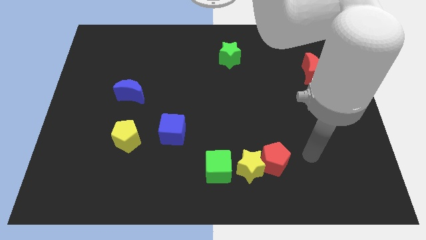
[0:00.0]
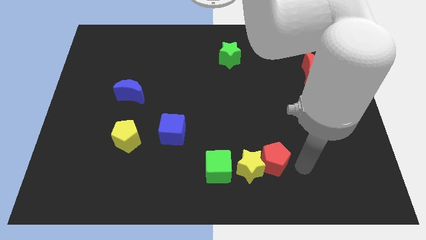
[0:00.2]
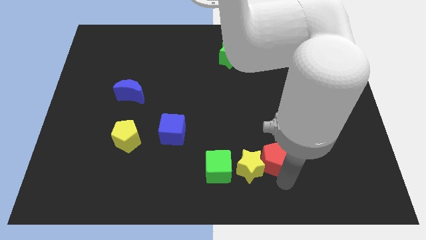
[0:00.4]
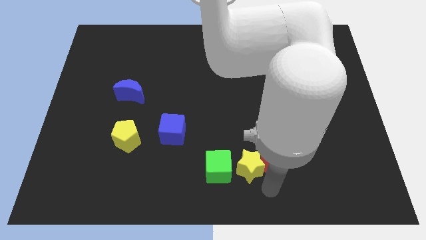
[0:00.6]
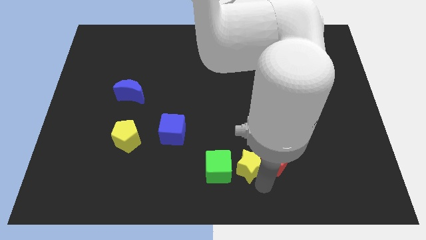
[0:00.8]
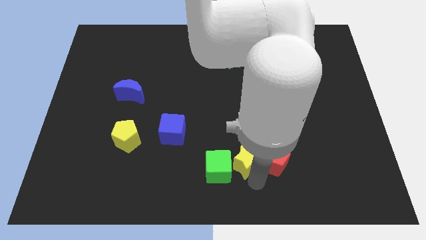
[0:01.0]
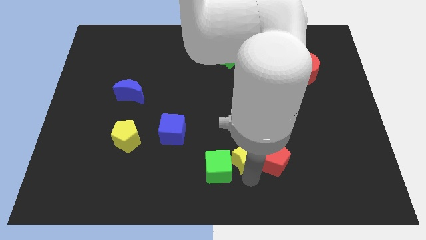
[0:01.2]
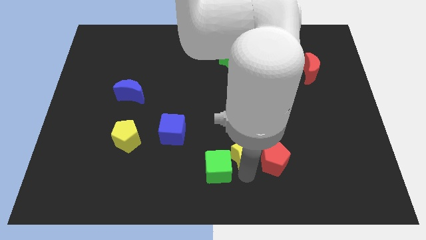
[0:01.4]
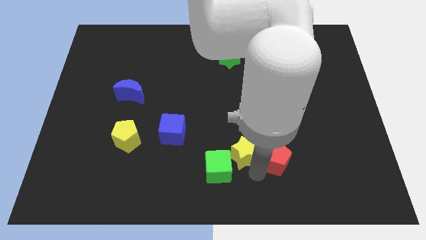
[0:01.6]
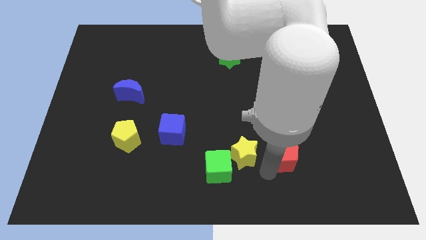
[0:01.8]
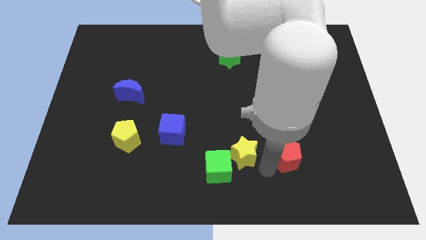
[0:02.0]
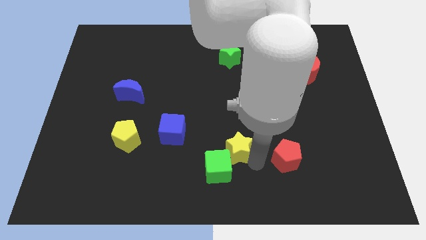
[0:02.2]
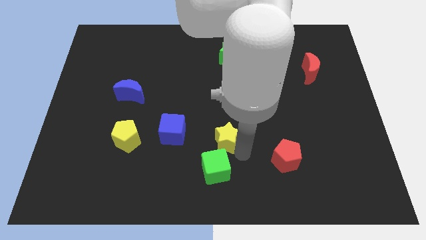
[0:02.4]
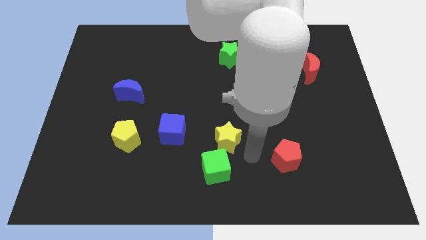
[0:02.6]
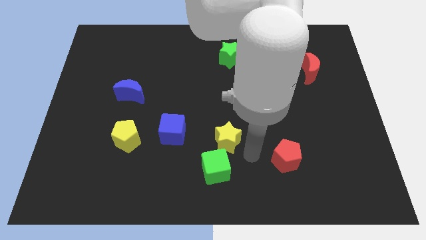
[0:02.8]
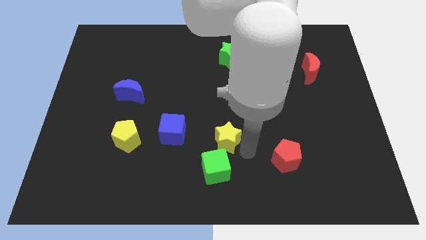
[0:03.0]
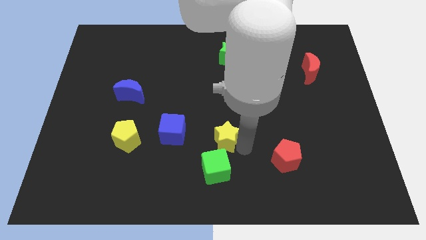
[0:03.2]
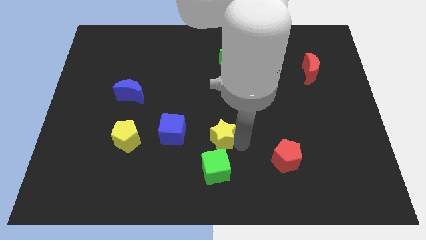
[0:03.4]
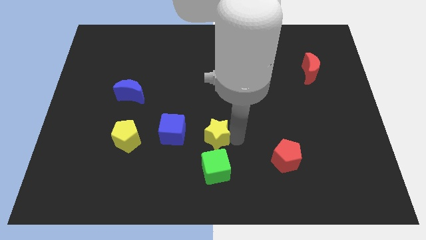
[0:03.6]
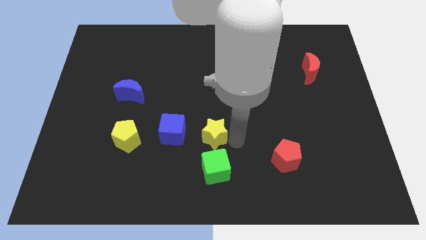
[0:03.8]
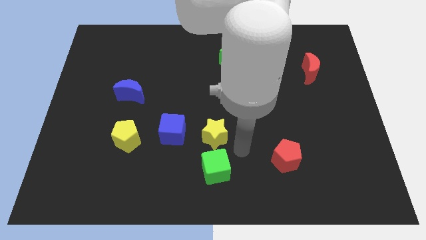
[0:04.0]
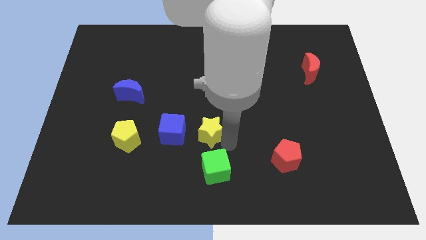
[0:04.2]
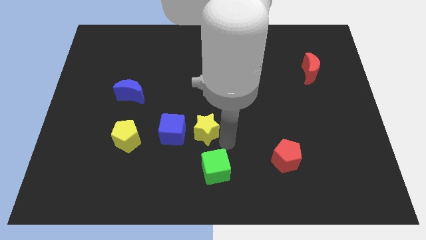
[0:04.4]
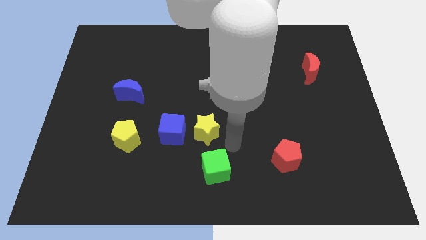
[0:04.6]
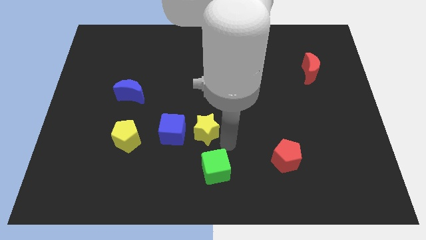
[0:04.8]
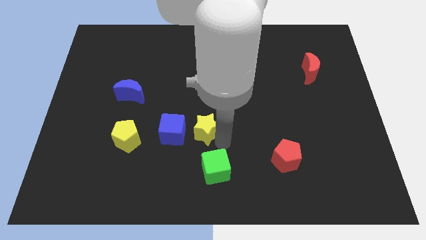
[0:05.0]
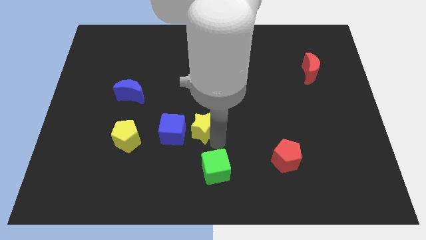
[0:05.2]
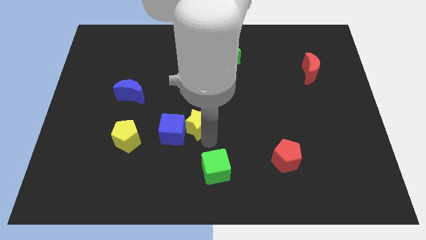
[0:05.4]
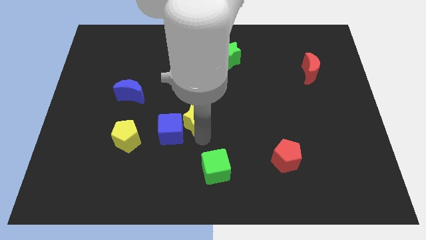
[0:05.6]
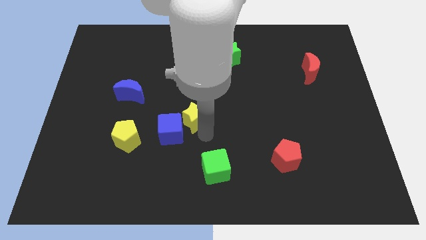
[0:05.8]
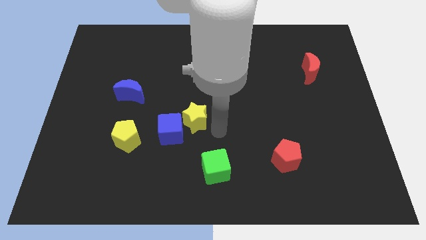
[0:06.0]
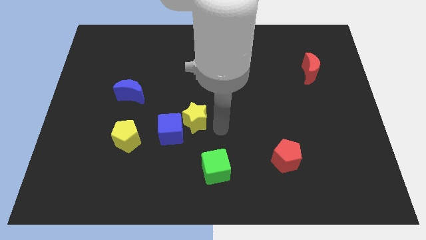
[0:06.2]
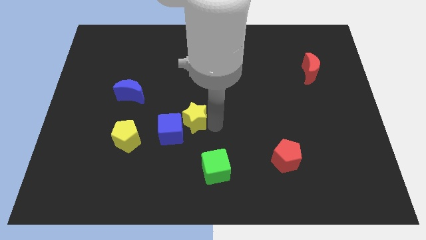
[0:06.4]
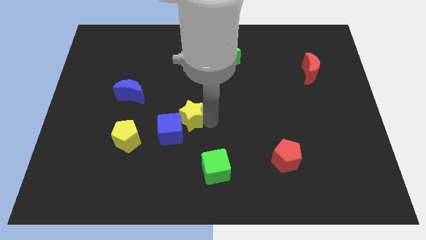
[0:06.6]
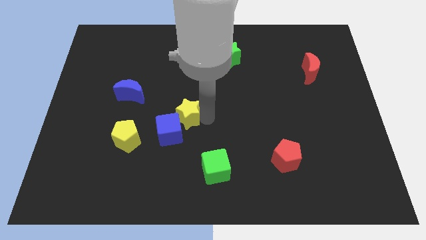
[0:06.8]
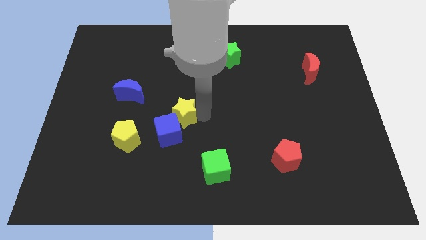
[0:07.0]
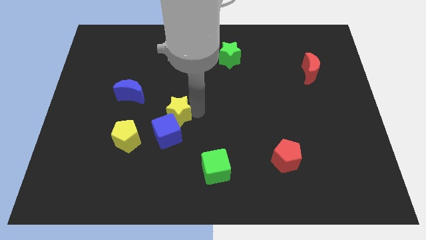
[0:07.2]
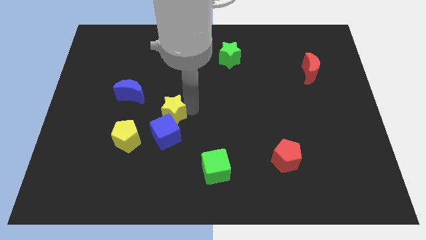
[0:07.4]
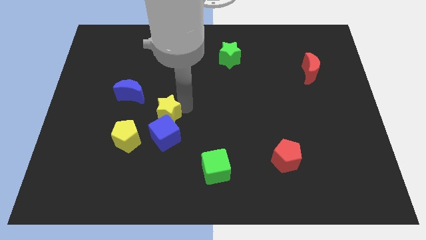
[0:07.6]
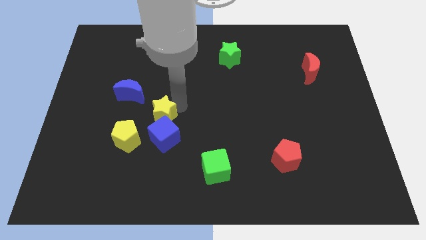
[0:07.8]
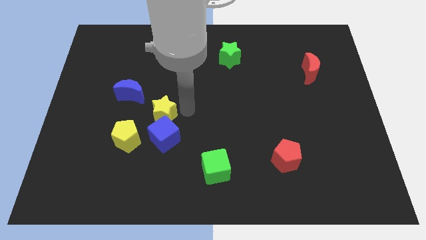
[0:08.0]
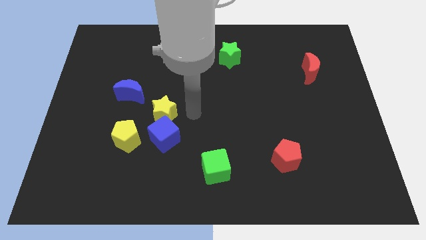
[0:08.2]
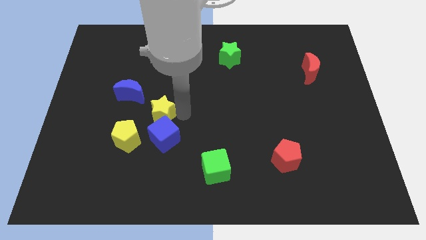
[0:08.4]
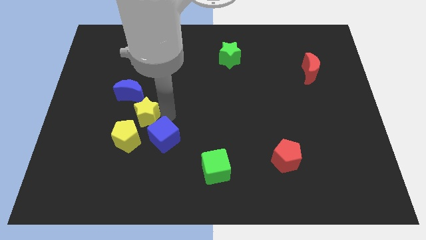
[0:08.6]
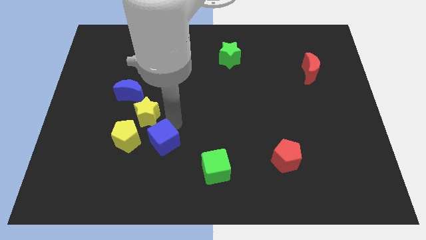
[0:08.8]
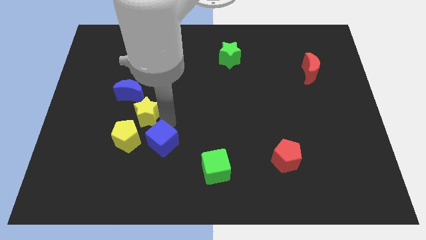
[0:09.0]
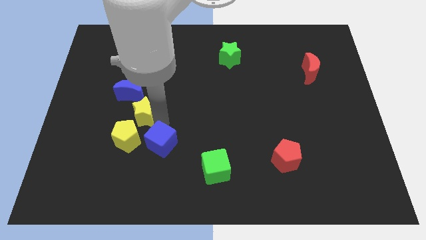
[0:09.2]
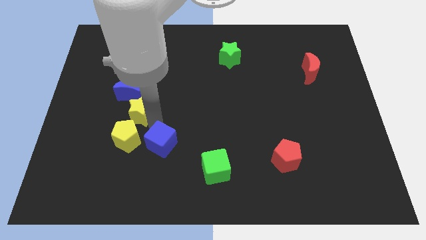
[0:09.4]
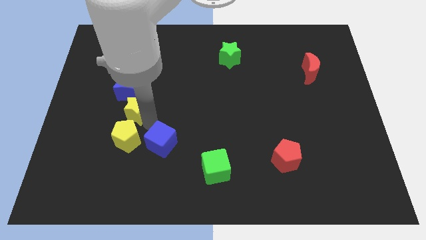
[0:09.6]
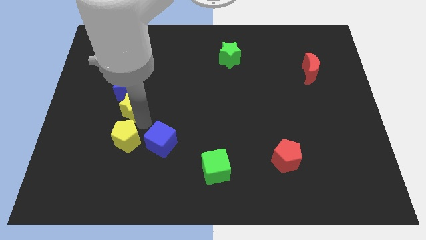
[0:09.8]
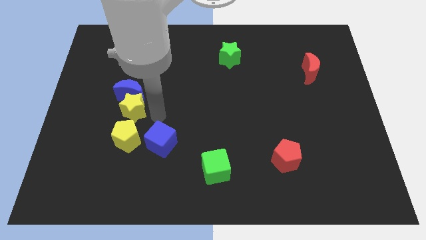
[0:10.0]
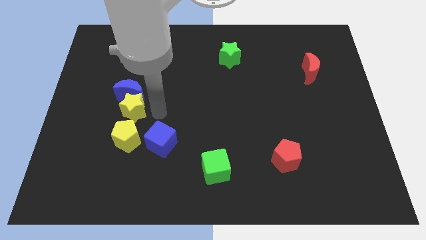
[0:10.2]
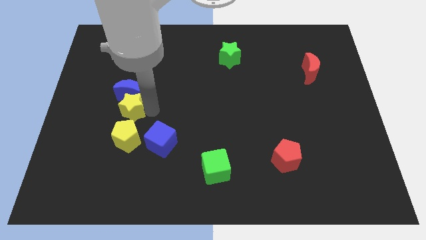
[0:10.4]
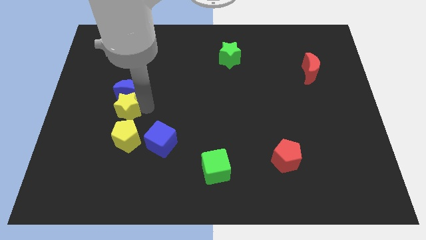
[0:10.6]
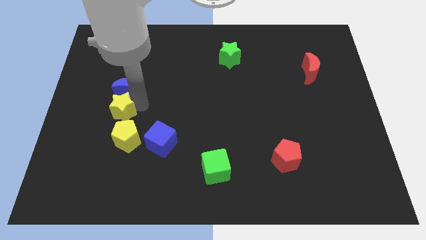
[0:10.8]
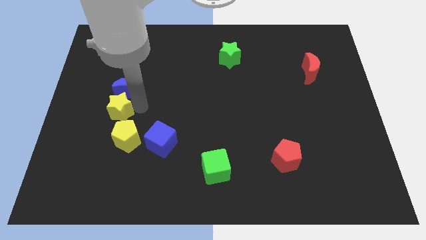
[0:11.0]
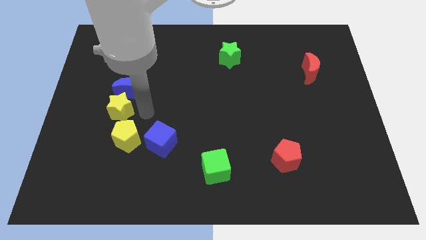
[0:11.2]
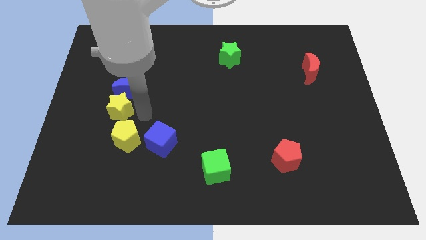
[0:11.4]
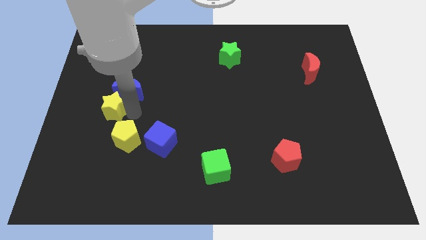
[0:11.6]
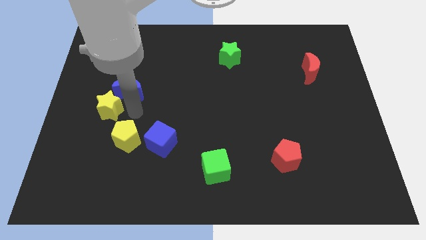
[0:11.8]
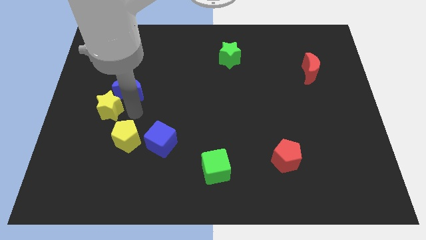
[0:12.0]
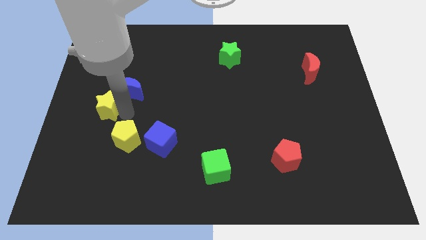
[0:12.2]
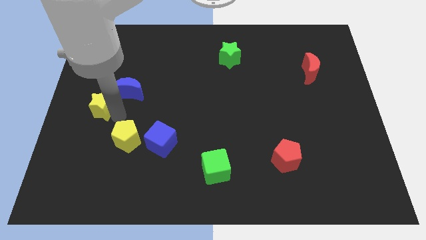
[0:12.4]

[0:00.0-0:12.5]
put the yellow star to the left side of the board
